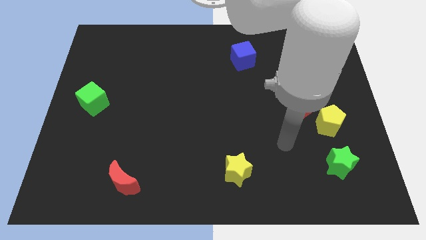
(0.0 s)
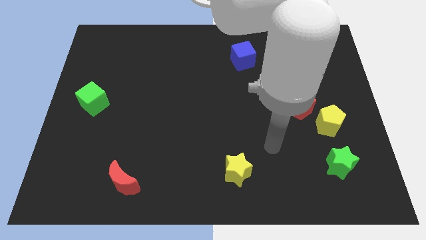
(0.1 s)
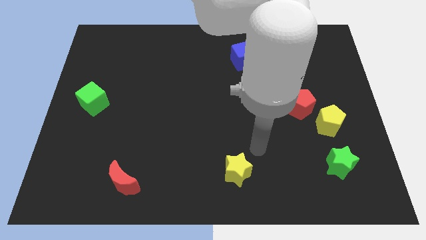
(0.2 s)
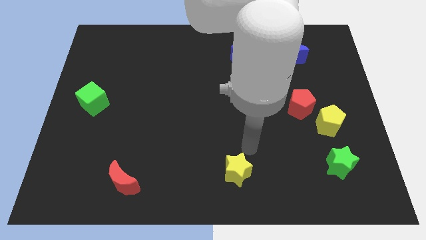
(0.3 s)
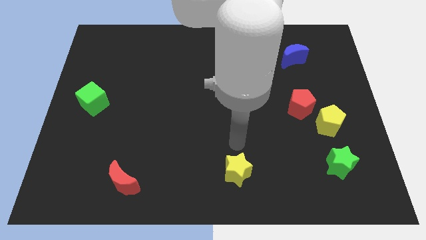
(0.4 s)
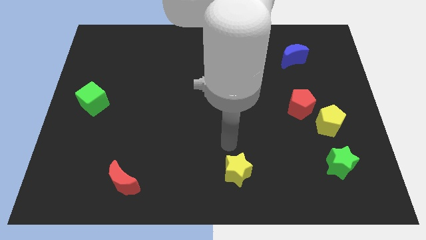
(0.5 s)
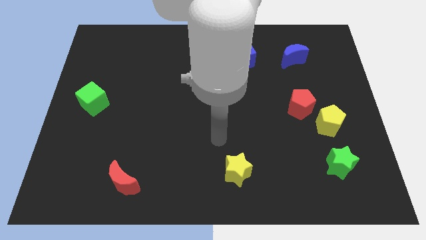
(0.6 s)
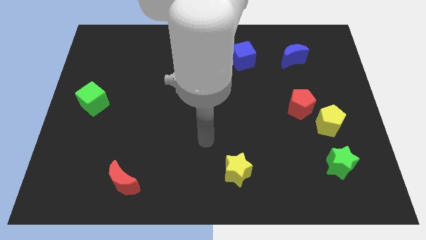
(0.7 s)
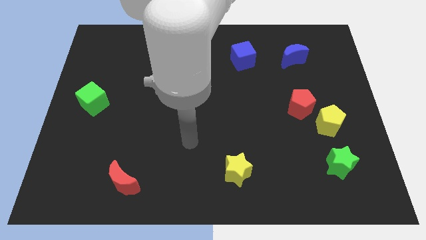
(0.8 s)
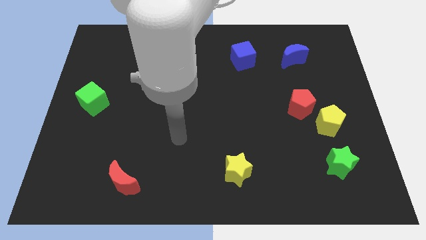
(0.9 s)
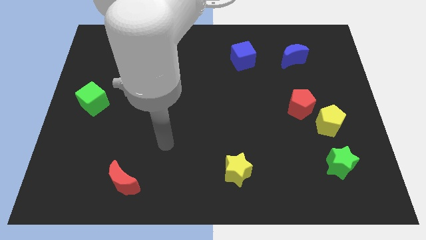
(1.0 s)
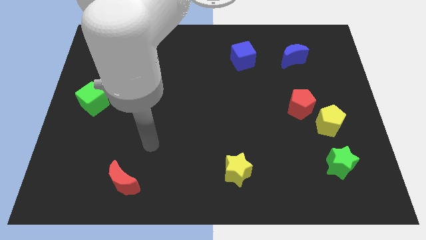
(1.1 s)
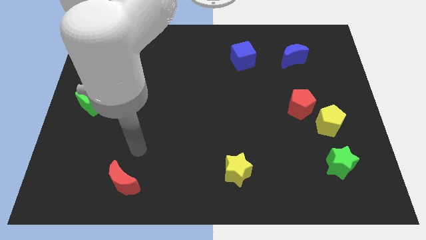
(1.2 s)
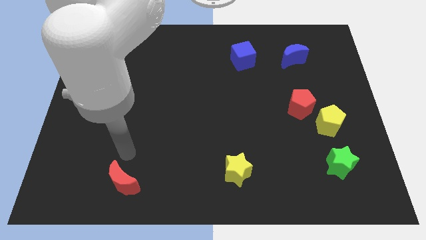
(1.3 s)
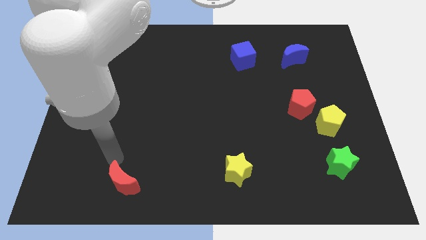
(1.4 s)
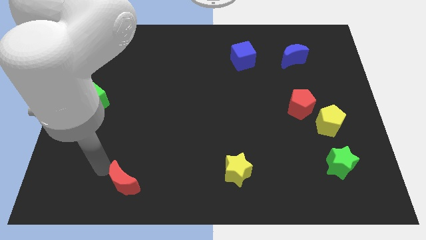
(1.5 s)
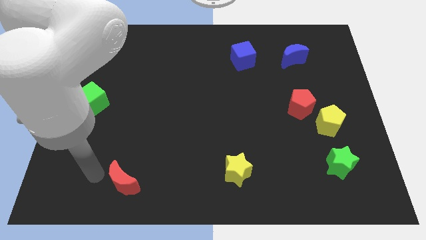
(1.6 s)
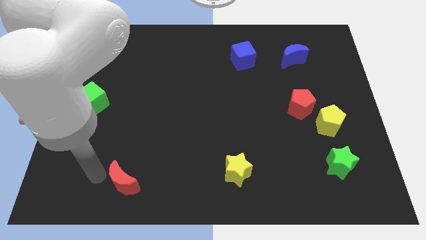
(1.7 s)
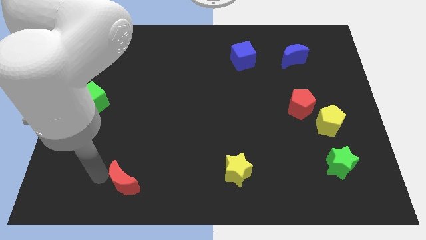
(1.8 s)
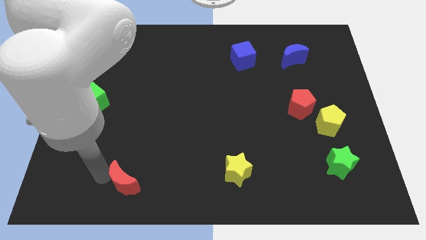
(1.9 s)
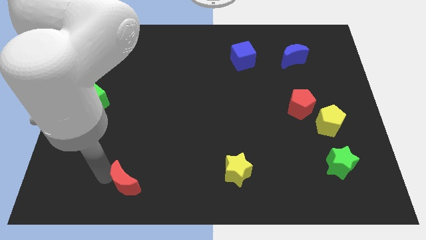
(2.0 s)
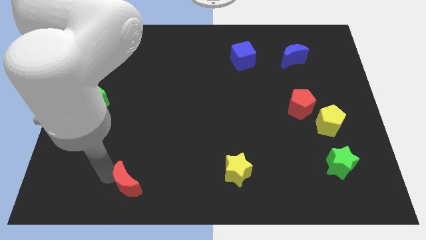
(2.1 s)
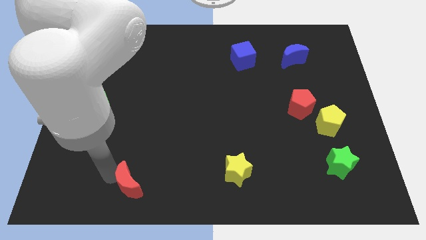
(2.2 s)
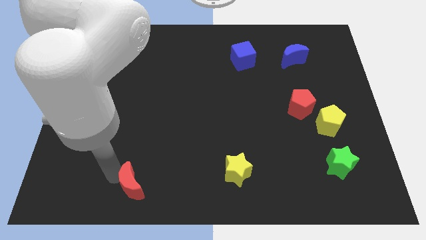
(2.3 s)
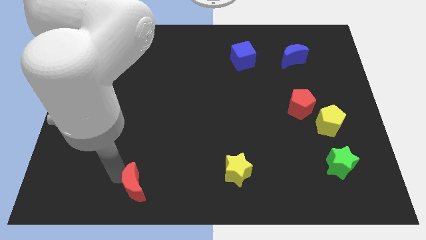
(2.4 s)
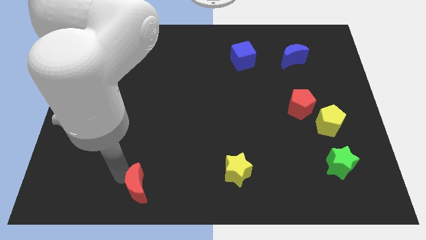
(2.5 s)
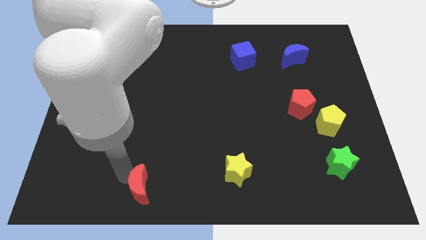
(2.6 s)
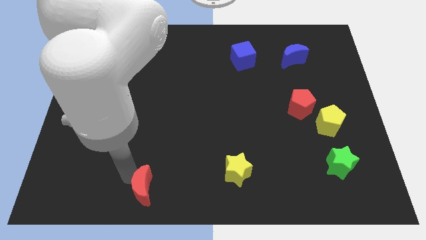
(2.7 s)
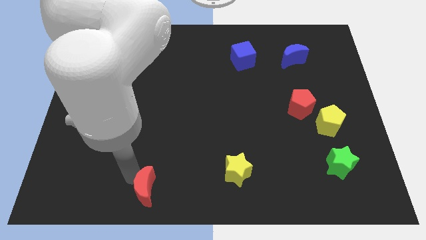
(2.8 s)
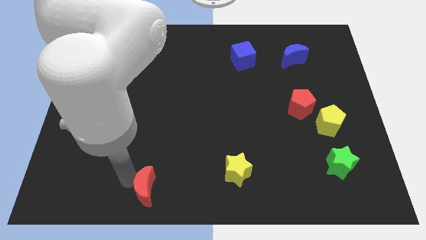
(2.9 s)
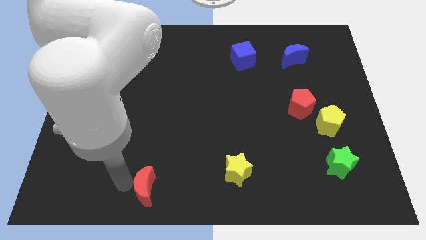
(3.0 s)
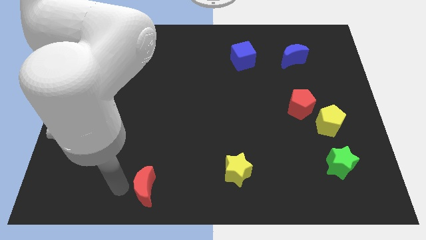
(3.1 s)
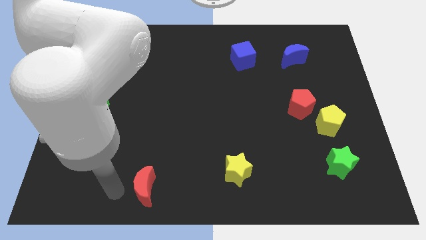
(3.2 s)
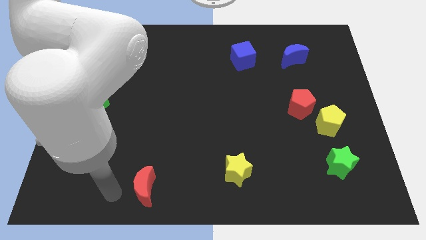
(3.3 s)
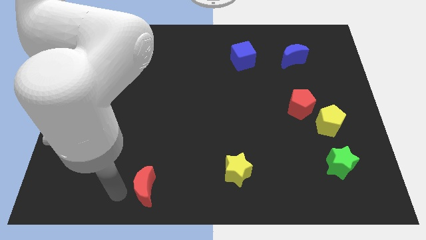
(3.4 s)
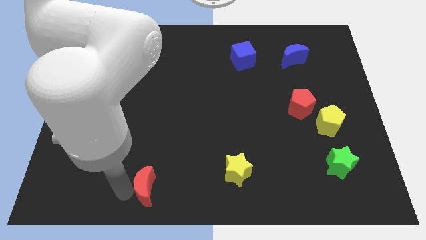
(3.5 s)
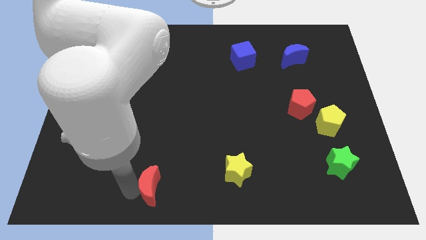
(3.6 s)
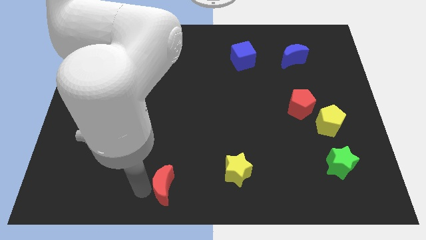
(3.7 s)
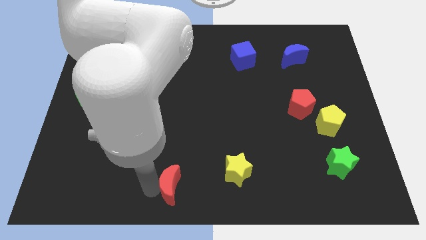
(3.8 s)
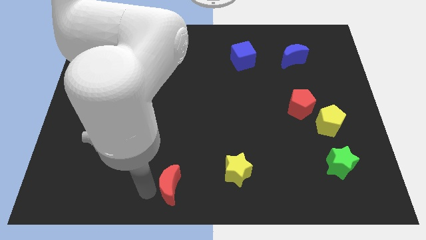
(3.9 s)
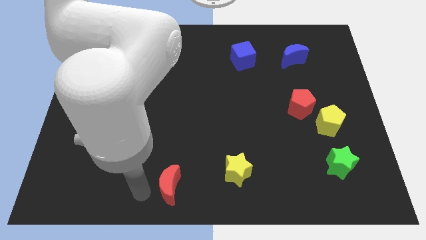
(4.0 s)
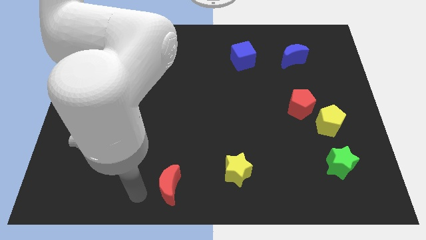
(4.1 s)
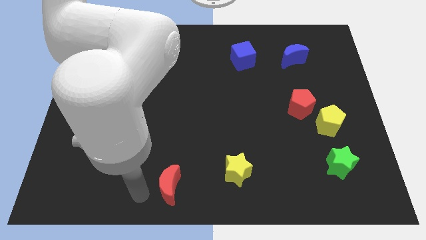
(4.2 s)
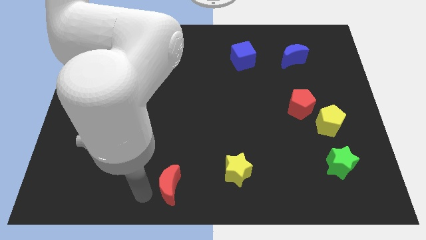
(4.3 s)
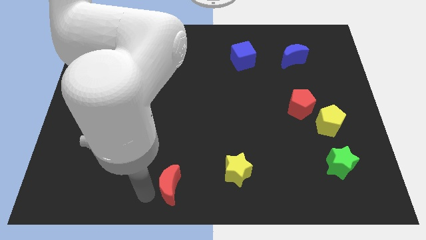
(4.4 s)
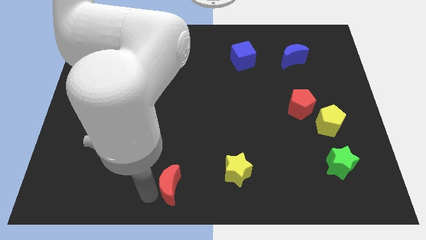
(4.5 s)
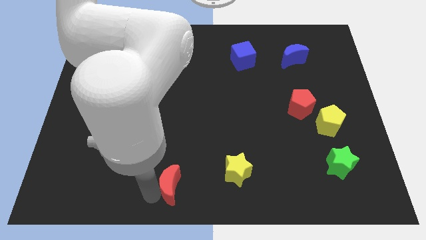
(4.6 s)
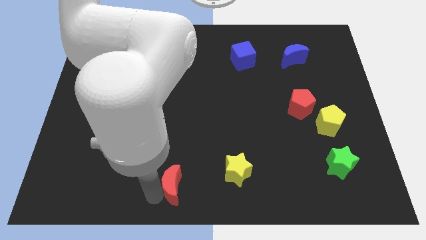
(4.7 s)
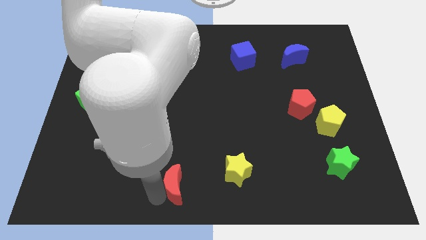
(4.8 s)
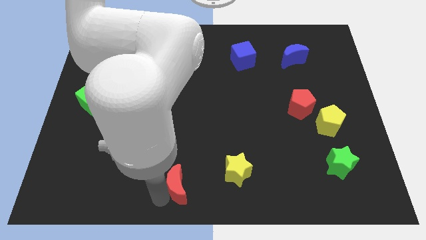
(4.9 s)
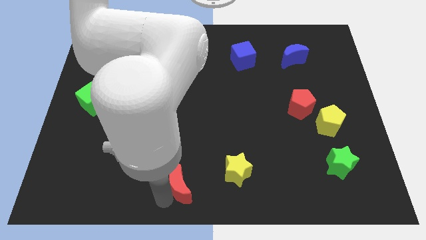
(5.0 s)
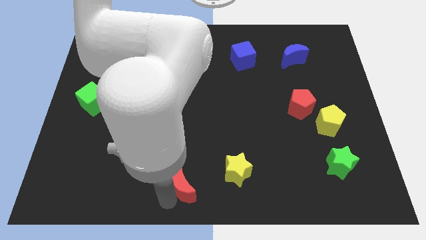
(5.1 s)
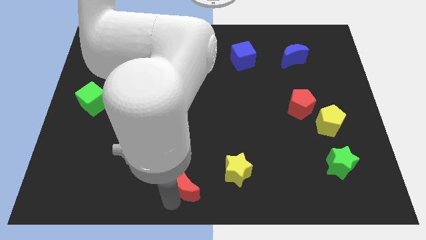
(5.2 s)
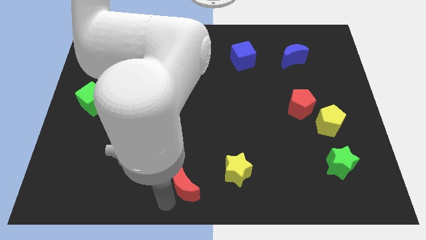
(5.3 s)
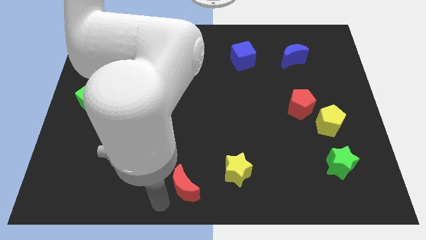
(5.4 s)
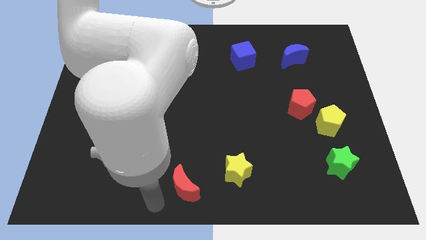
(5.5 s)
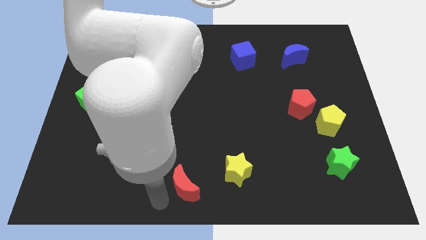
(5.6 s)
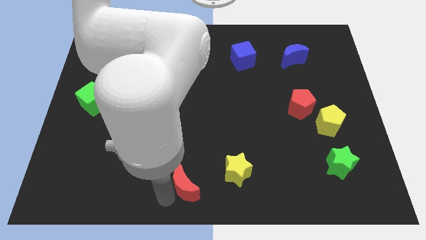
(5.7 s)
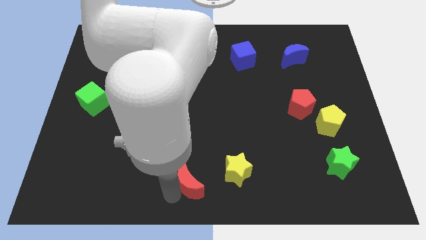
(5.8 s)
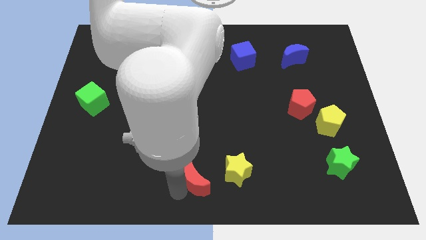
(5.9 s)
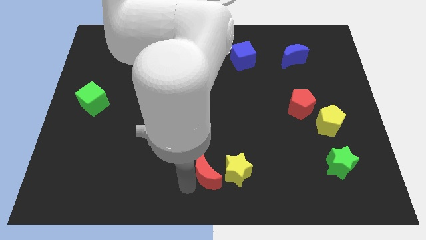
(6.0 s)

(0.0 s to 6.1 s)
slide the red moon close to the yellow star

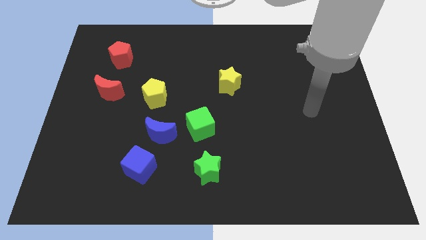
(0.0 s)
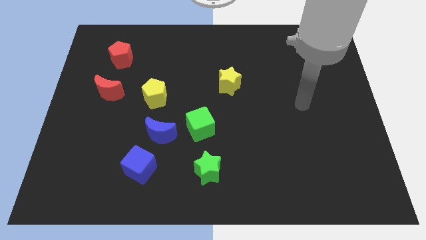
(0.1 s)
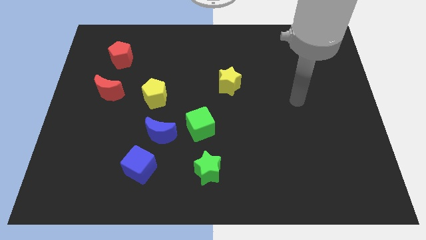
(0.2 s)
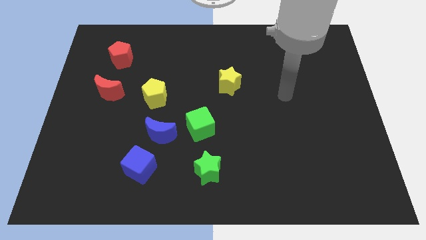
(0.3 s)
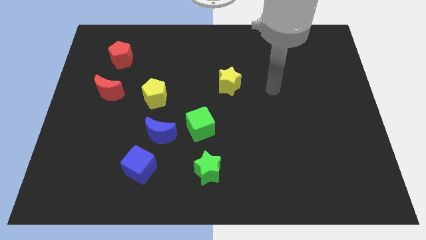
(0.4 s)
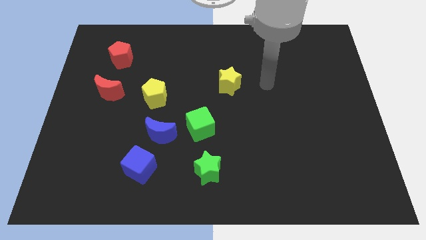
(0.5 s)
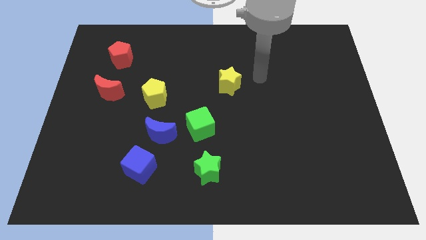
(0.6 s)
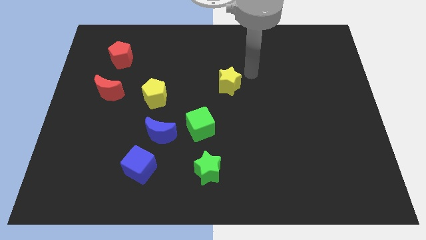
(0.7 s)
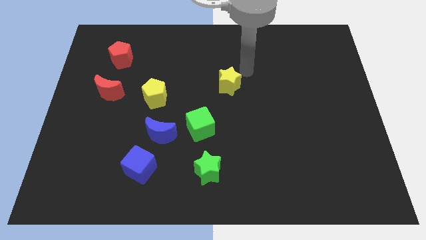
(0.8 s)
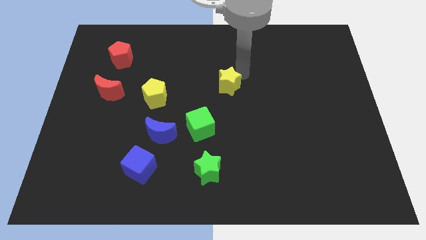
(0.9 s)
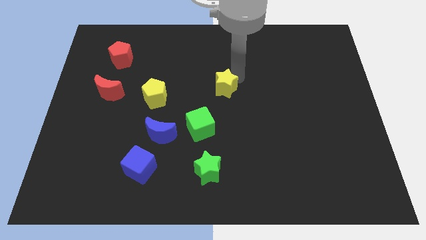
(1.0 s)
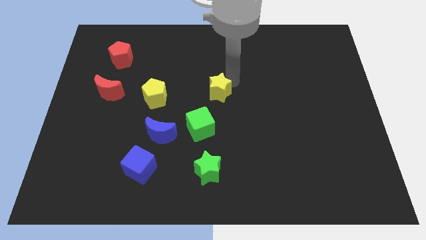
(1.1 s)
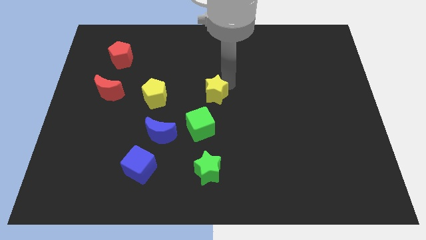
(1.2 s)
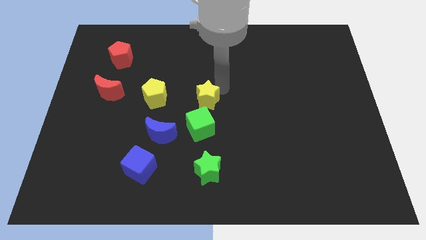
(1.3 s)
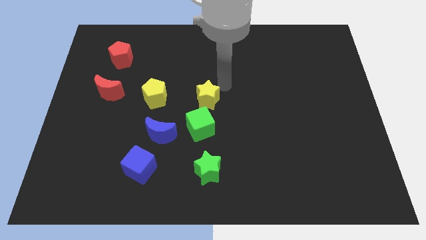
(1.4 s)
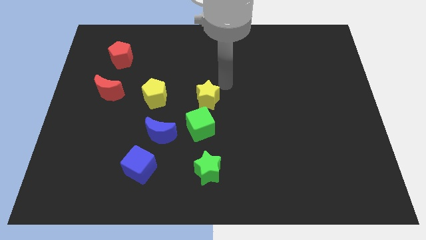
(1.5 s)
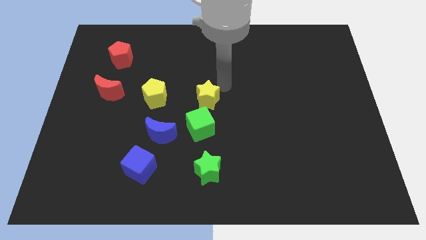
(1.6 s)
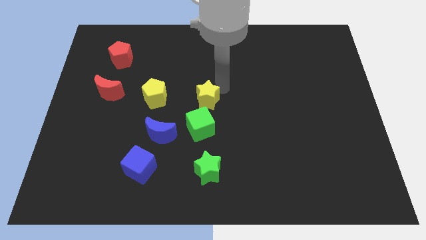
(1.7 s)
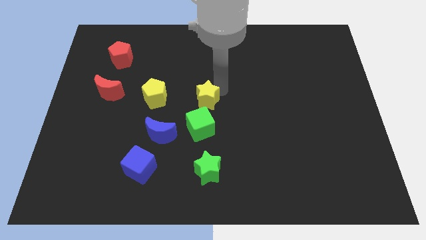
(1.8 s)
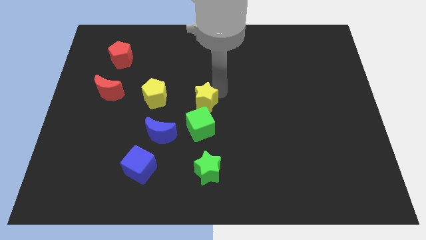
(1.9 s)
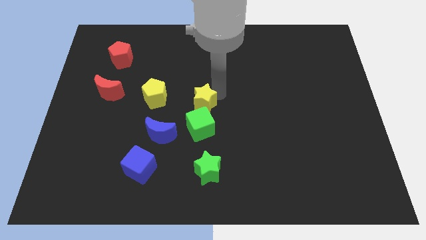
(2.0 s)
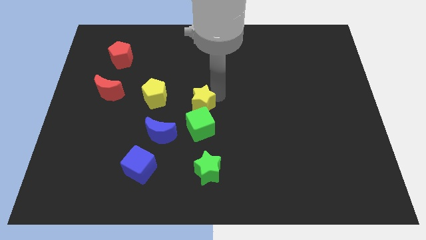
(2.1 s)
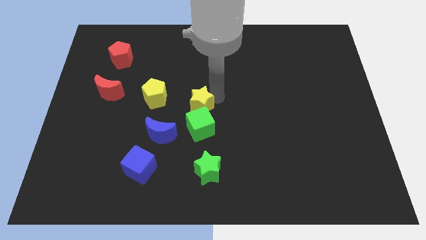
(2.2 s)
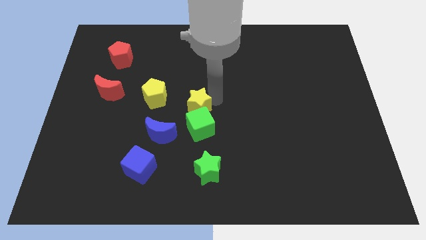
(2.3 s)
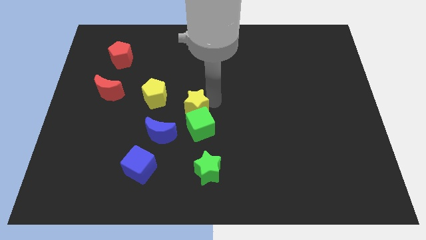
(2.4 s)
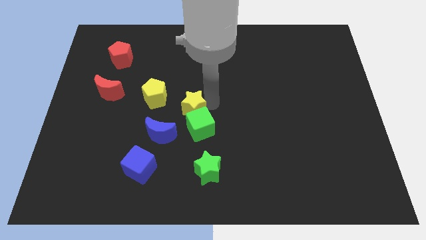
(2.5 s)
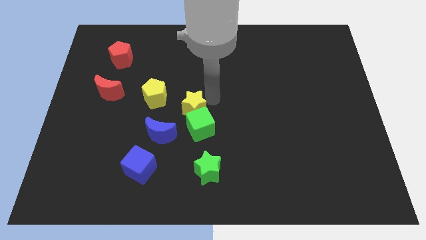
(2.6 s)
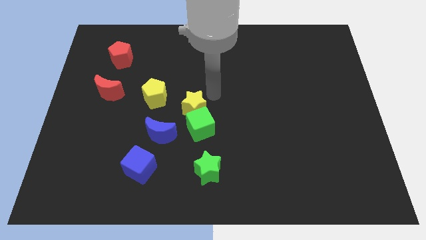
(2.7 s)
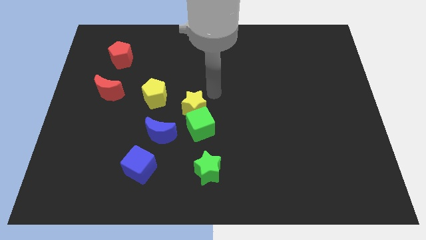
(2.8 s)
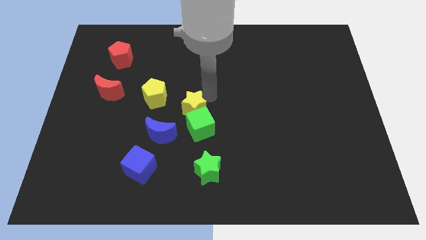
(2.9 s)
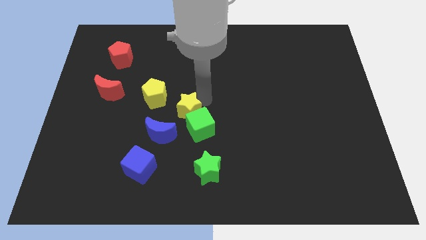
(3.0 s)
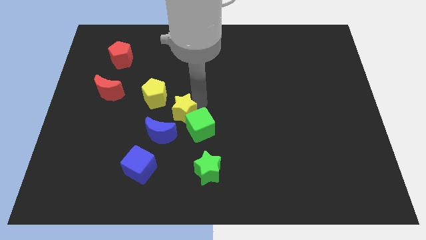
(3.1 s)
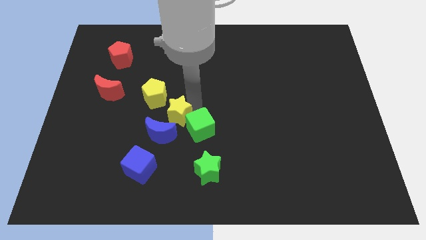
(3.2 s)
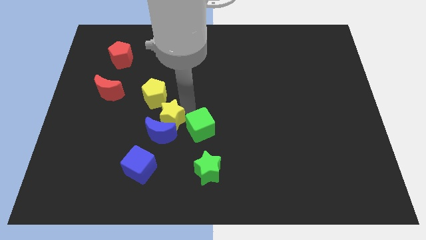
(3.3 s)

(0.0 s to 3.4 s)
move the yellow star next to the blue moon
